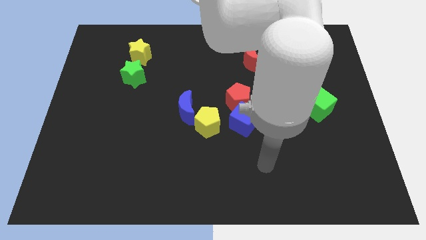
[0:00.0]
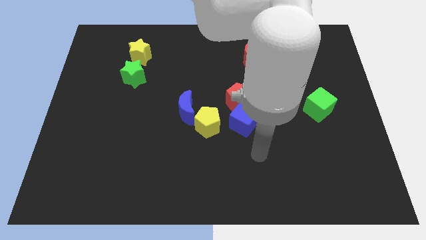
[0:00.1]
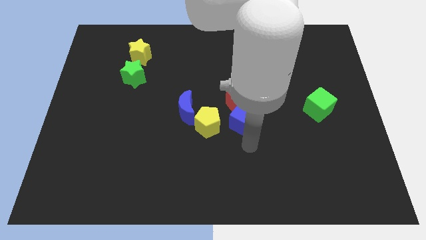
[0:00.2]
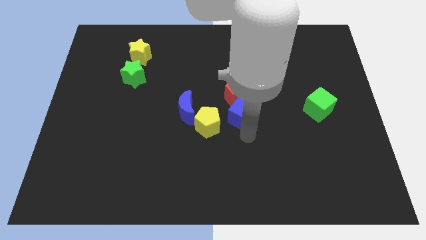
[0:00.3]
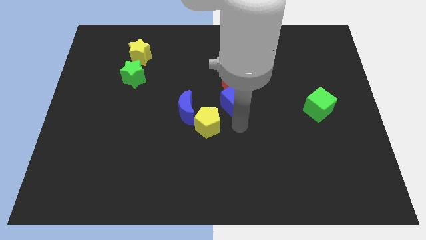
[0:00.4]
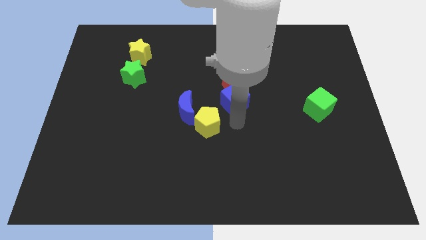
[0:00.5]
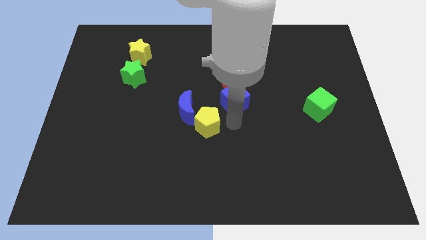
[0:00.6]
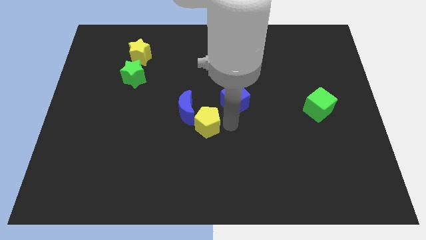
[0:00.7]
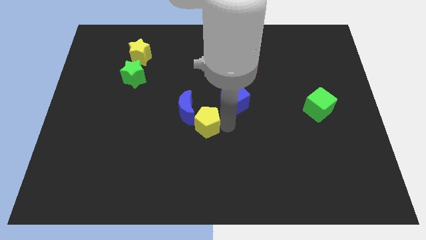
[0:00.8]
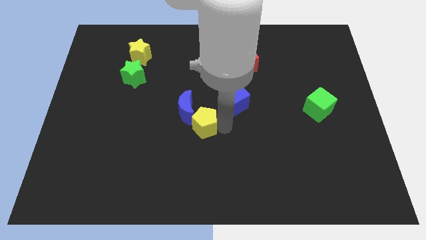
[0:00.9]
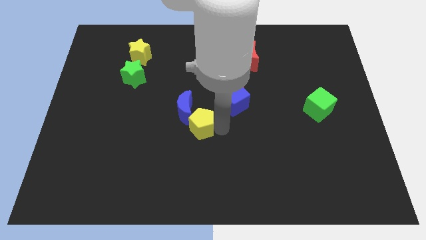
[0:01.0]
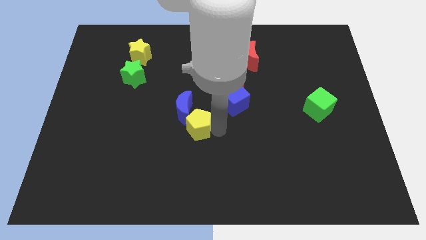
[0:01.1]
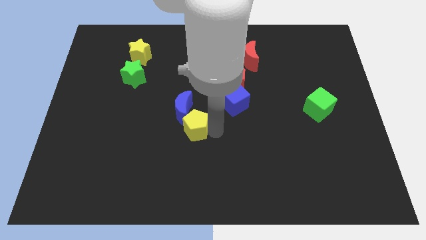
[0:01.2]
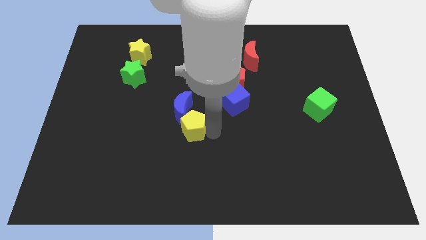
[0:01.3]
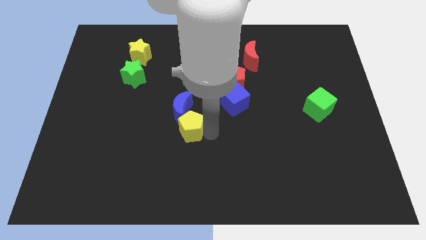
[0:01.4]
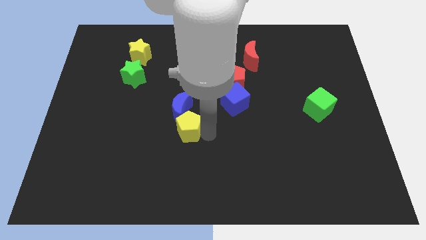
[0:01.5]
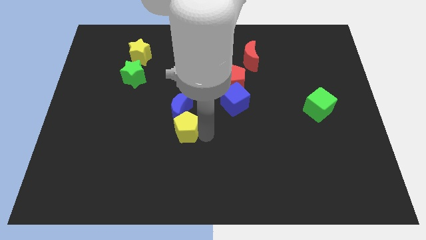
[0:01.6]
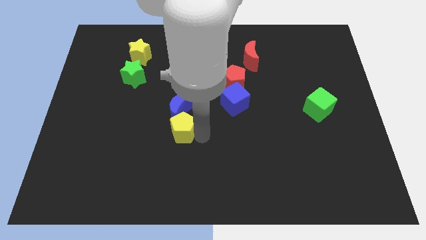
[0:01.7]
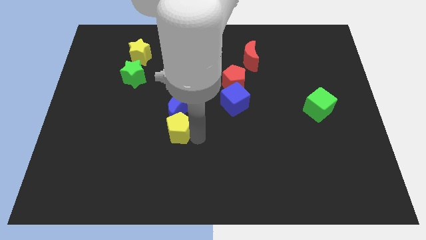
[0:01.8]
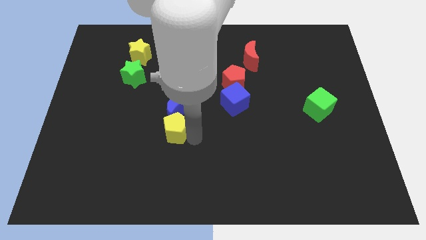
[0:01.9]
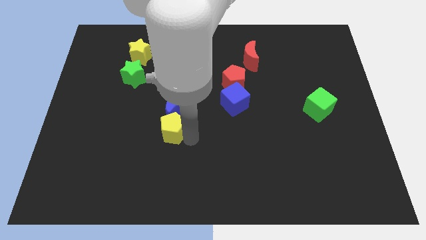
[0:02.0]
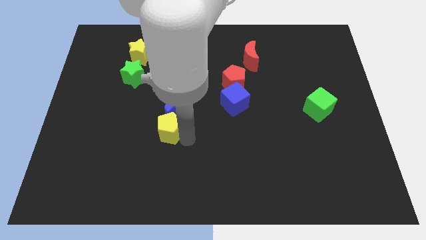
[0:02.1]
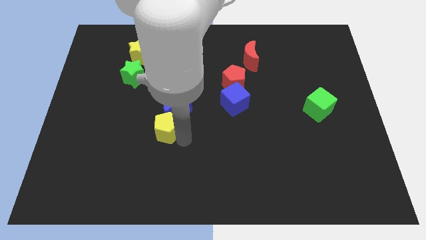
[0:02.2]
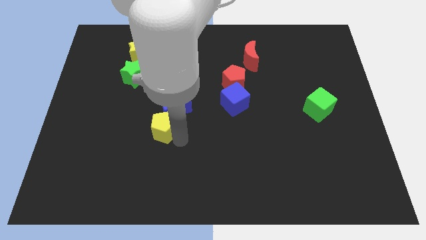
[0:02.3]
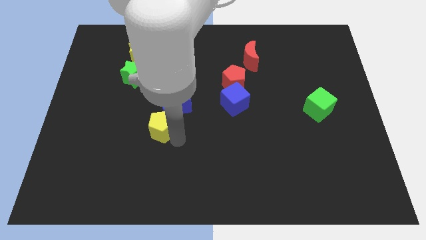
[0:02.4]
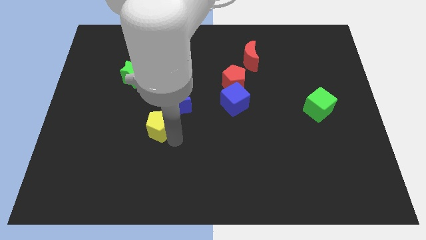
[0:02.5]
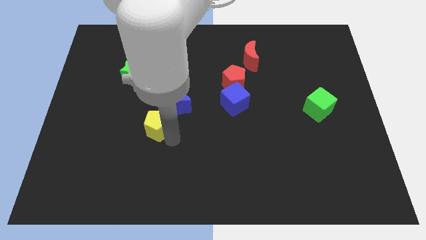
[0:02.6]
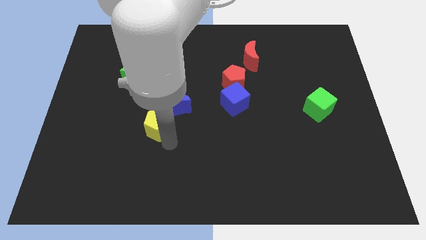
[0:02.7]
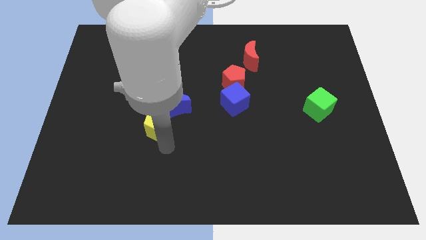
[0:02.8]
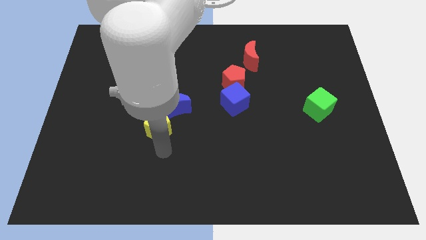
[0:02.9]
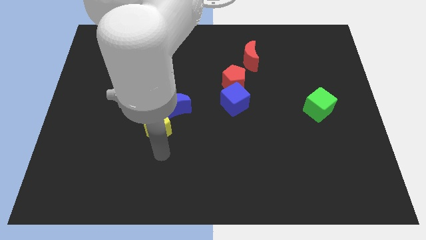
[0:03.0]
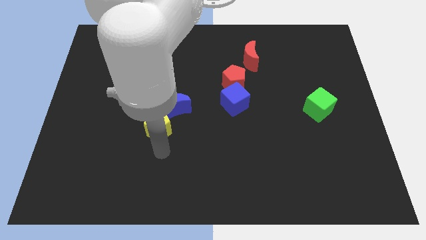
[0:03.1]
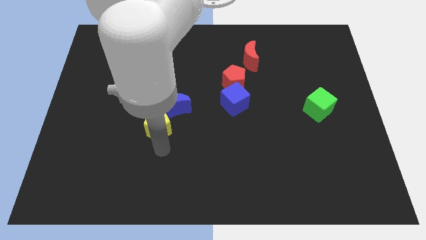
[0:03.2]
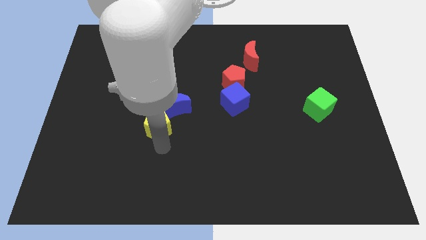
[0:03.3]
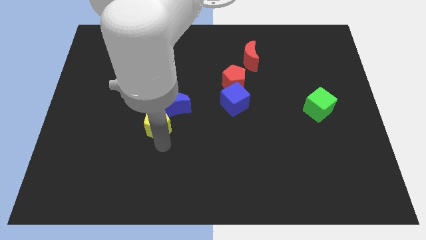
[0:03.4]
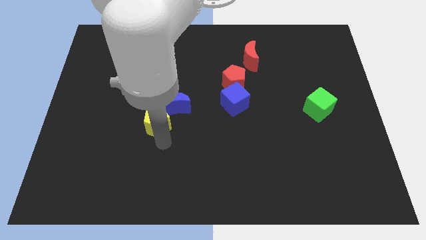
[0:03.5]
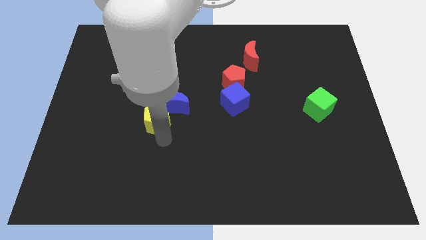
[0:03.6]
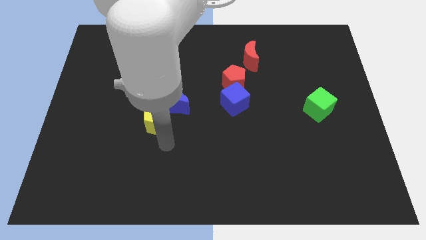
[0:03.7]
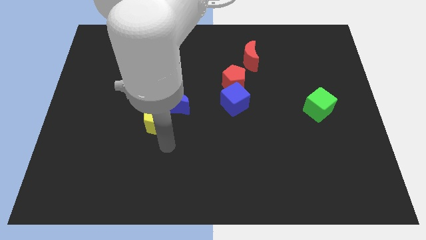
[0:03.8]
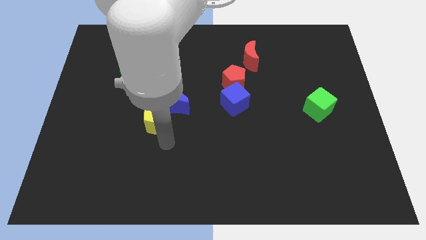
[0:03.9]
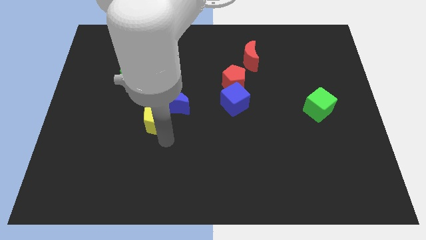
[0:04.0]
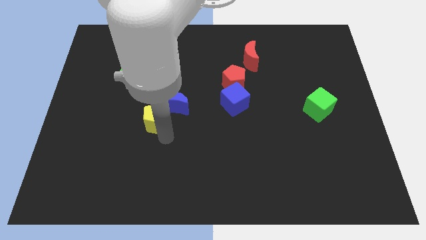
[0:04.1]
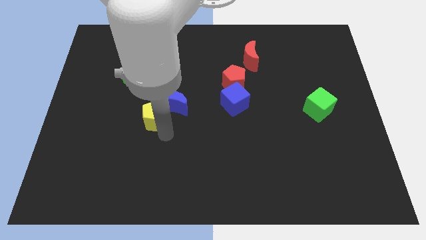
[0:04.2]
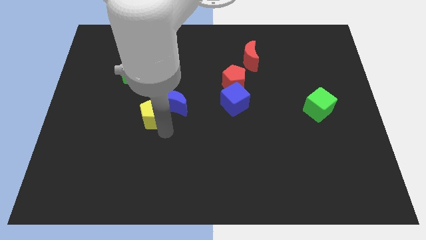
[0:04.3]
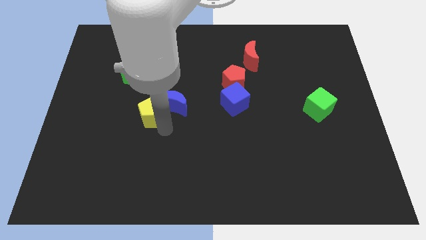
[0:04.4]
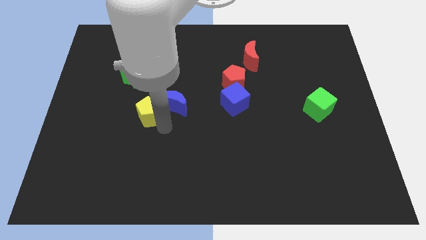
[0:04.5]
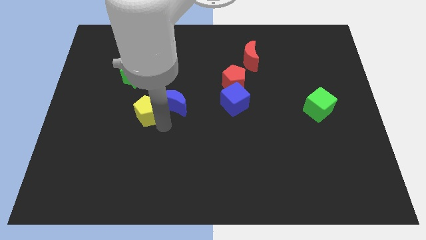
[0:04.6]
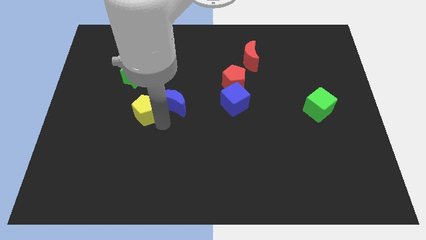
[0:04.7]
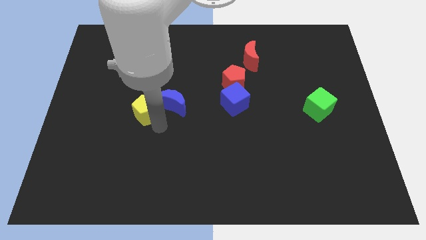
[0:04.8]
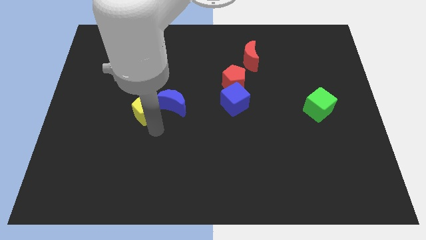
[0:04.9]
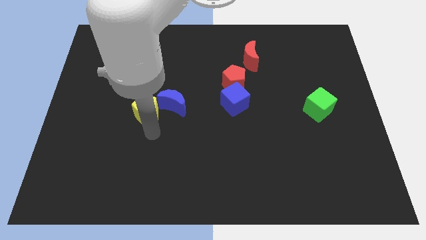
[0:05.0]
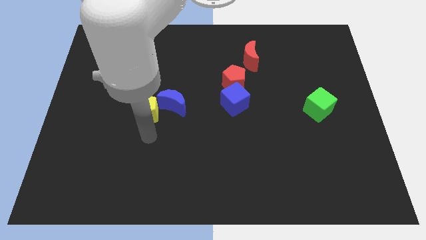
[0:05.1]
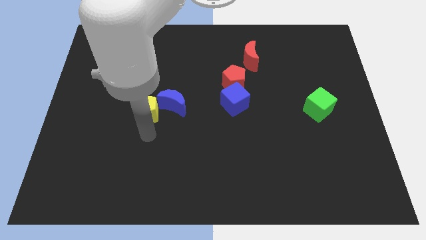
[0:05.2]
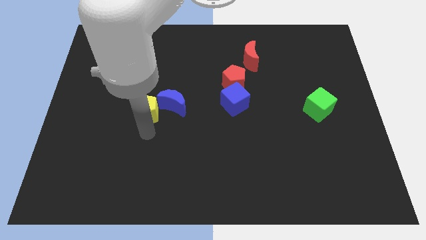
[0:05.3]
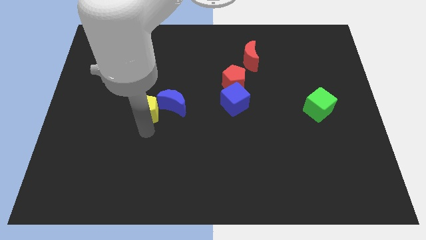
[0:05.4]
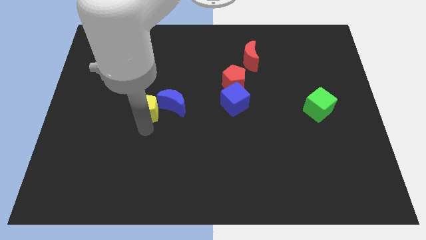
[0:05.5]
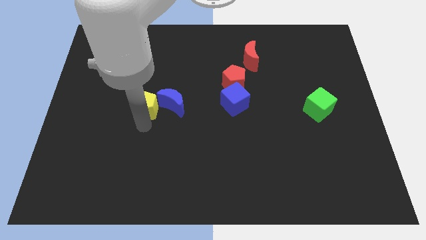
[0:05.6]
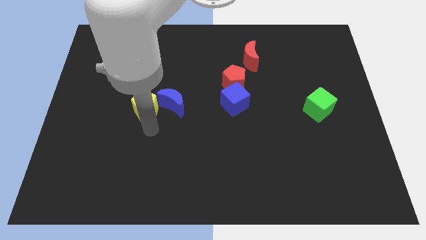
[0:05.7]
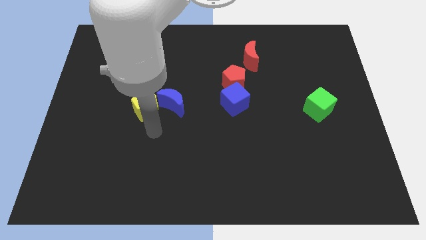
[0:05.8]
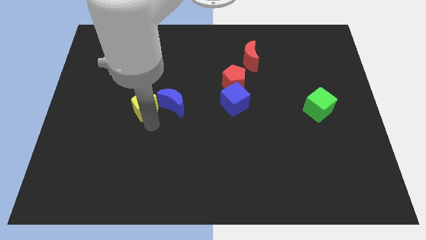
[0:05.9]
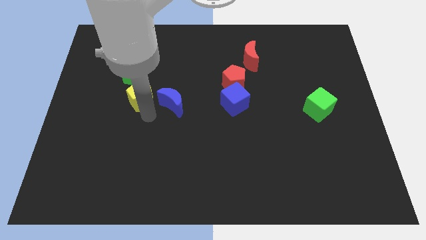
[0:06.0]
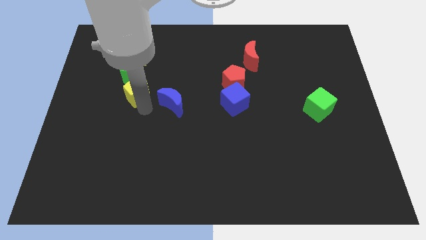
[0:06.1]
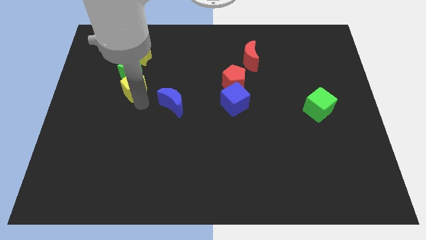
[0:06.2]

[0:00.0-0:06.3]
slide the yellow pentagon to the green star

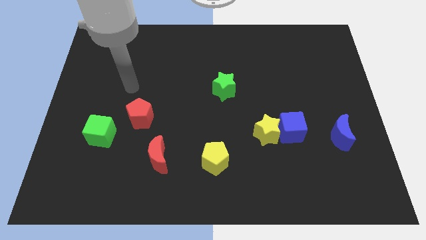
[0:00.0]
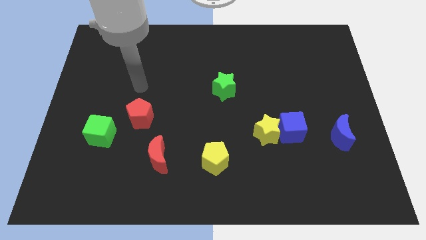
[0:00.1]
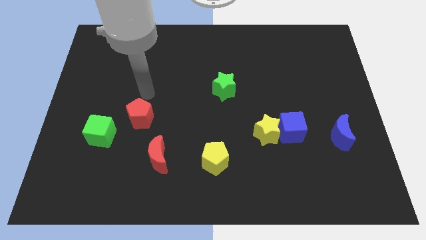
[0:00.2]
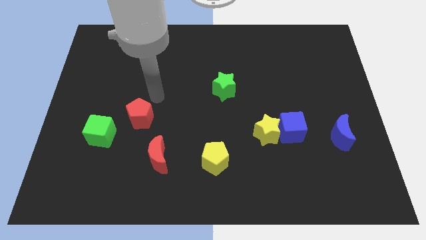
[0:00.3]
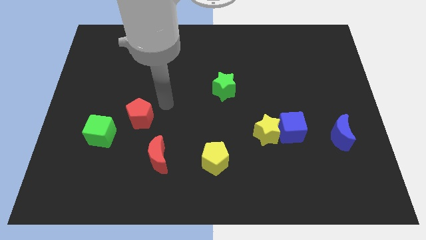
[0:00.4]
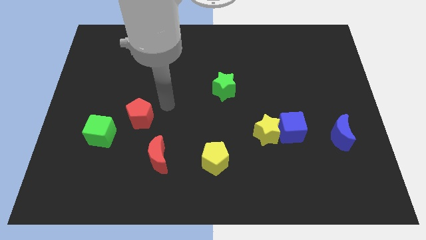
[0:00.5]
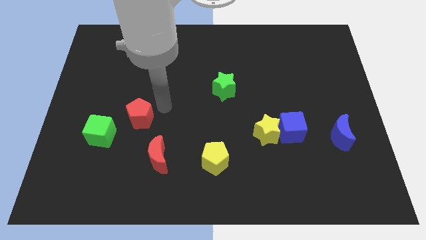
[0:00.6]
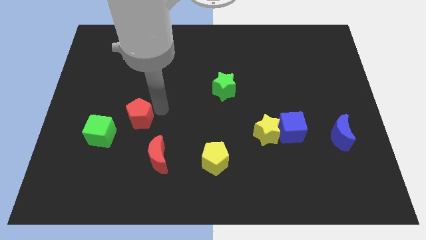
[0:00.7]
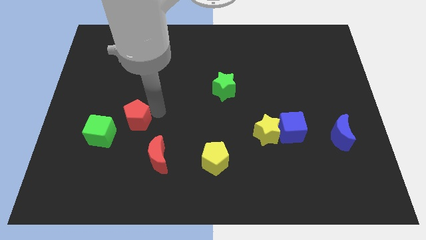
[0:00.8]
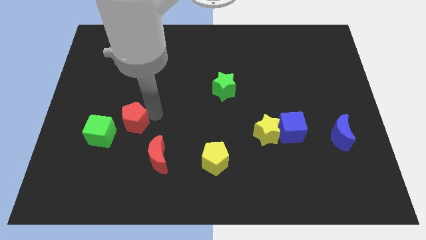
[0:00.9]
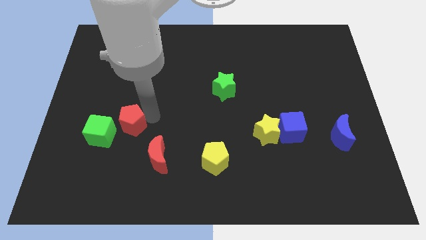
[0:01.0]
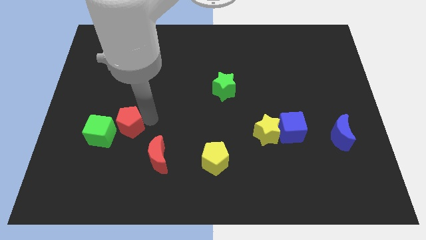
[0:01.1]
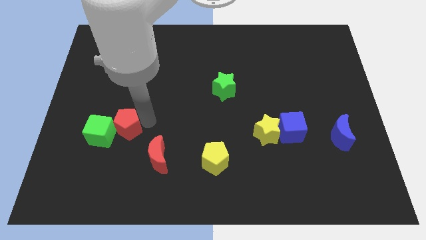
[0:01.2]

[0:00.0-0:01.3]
put the red pentagon to the green cube
